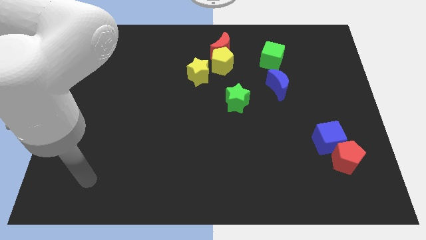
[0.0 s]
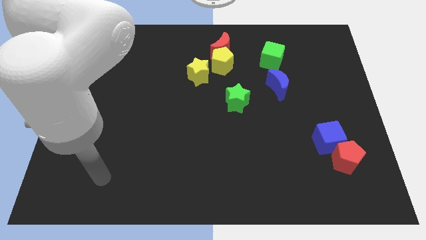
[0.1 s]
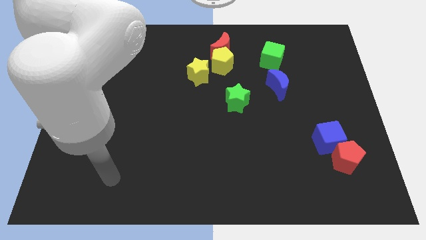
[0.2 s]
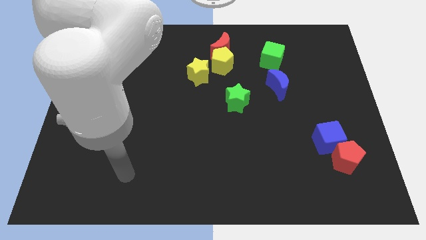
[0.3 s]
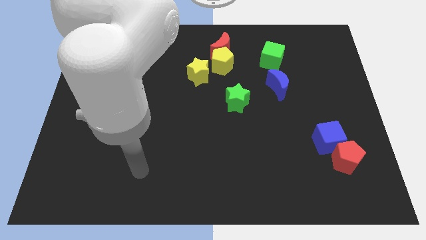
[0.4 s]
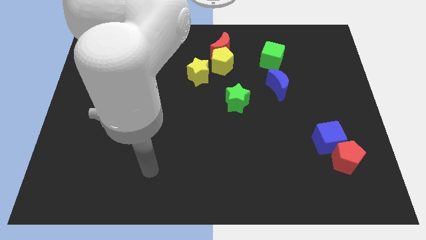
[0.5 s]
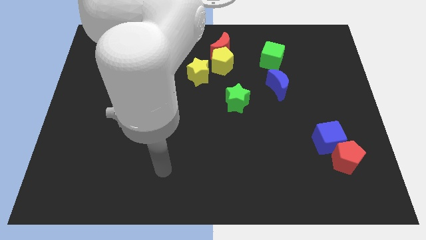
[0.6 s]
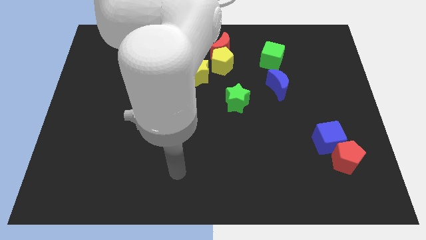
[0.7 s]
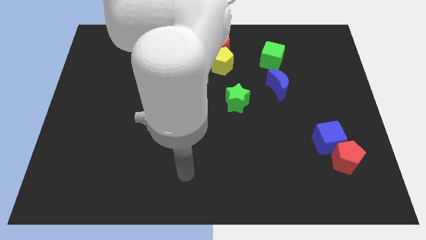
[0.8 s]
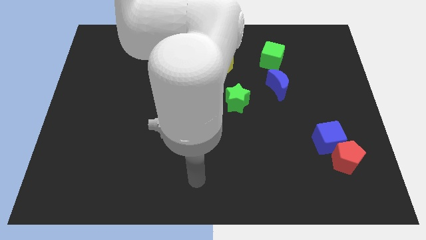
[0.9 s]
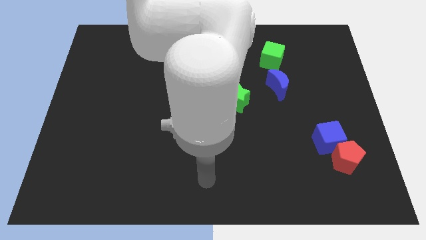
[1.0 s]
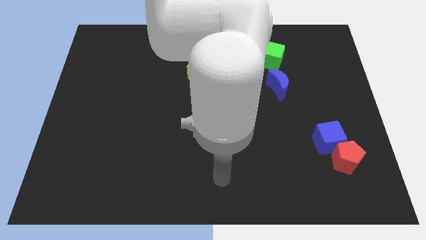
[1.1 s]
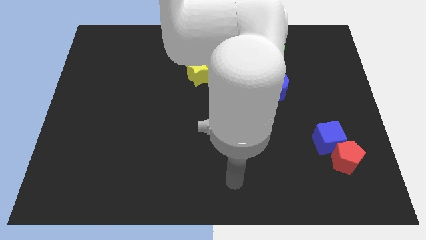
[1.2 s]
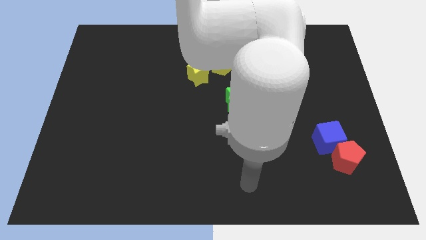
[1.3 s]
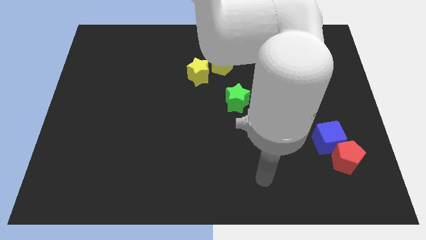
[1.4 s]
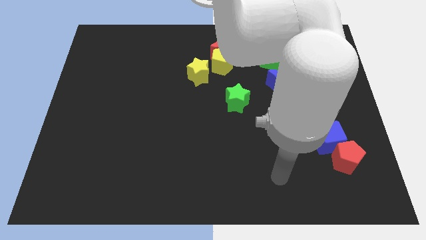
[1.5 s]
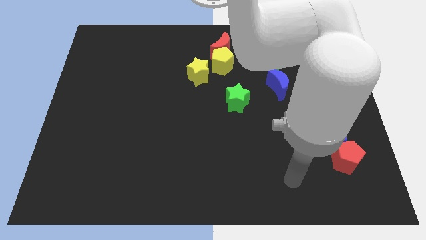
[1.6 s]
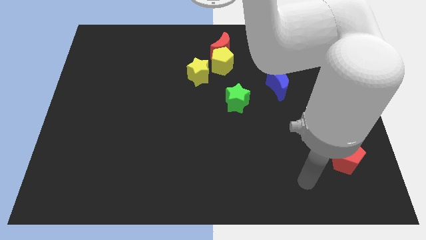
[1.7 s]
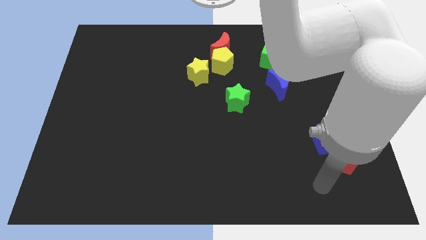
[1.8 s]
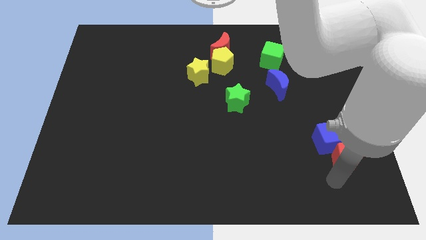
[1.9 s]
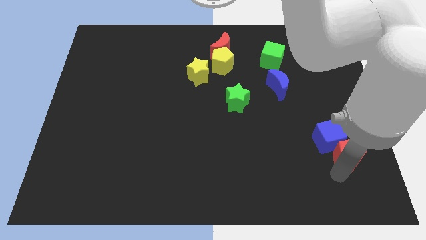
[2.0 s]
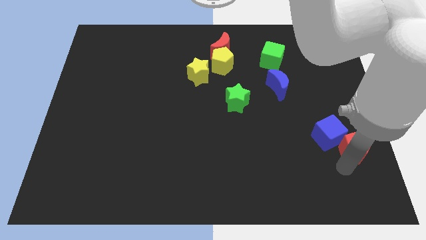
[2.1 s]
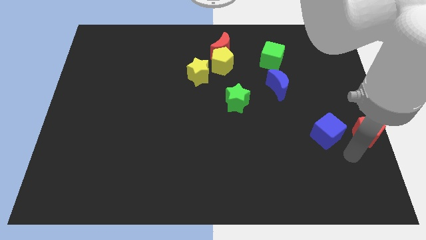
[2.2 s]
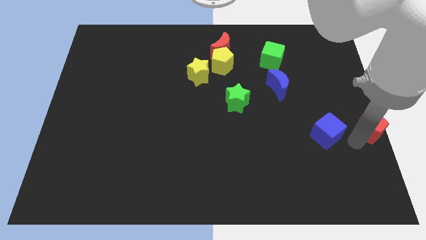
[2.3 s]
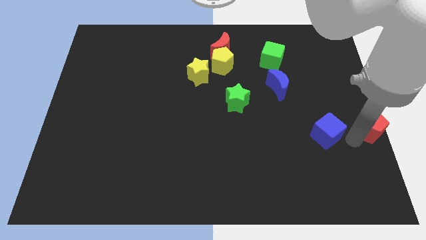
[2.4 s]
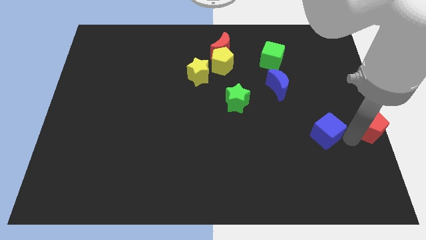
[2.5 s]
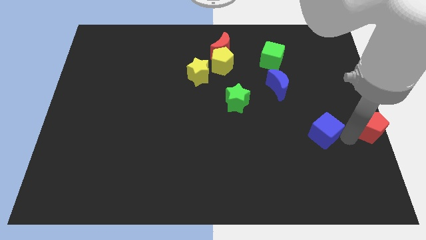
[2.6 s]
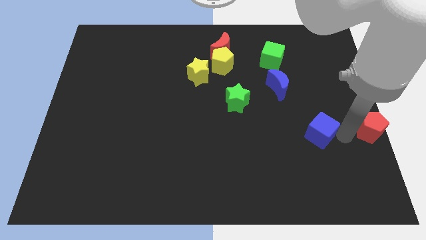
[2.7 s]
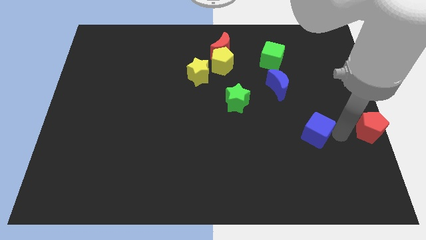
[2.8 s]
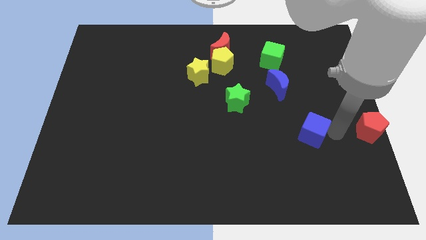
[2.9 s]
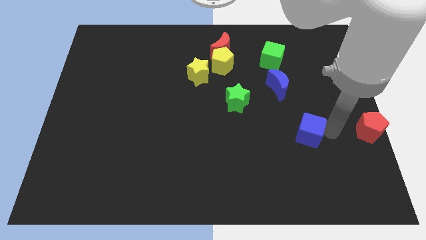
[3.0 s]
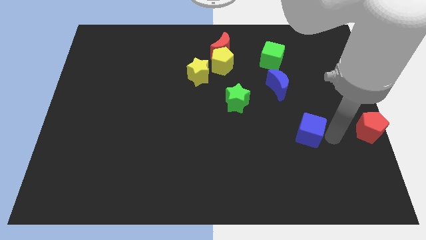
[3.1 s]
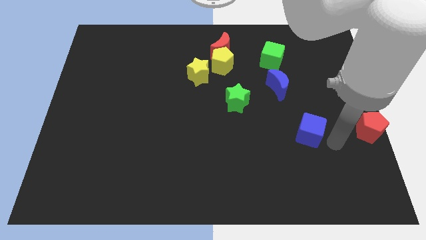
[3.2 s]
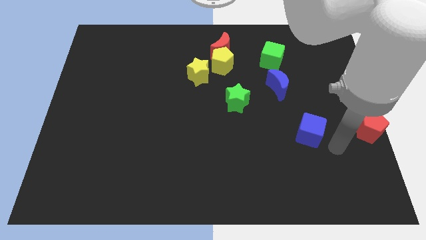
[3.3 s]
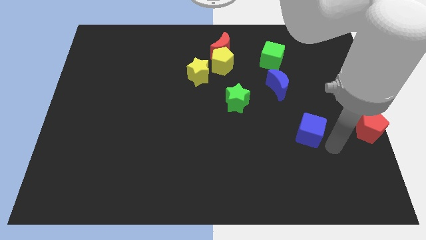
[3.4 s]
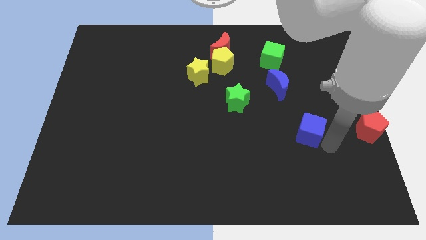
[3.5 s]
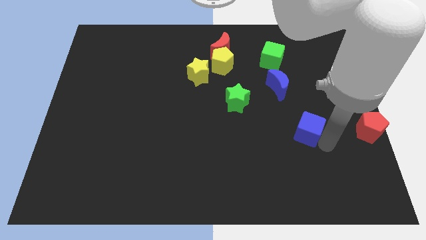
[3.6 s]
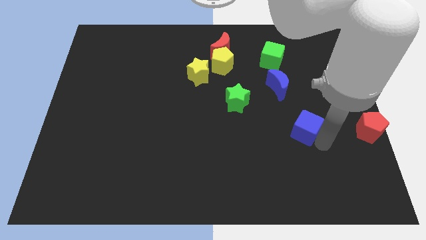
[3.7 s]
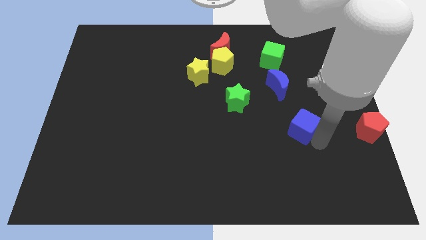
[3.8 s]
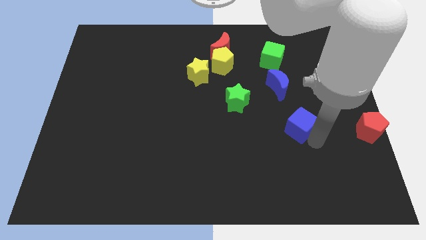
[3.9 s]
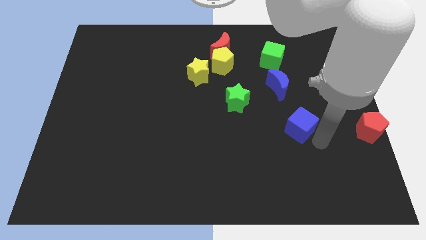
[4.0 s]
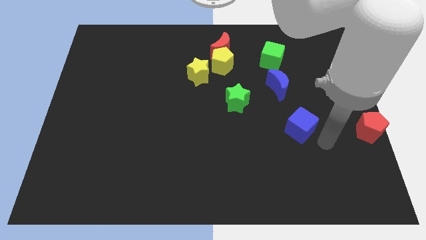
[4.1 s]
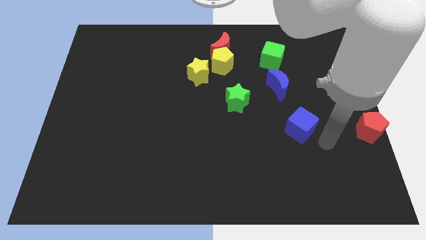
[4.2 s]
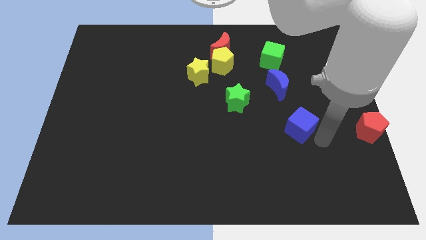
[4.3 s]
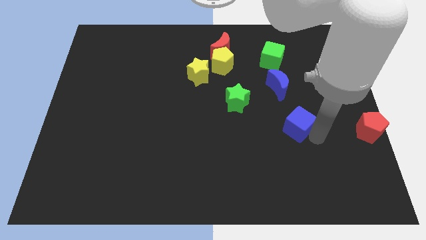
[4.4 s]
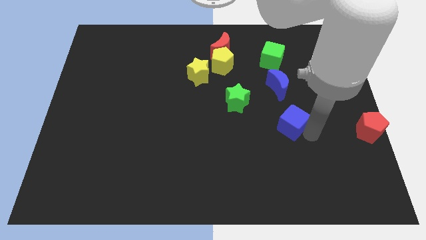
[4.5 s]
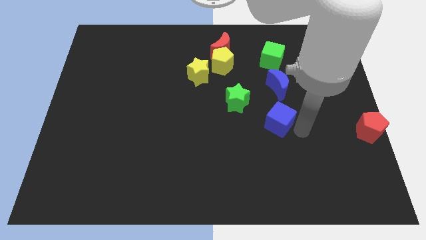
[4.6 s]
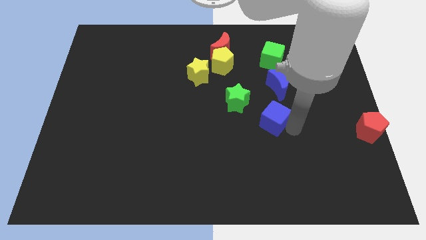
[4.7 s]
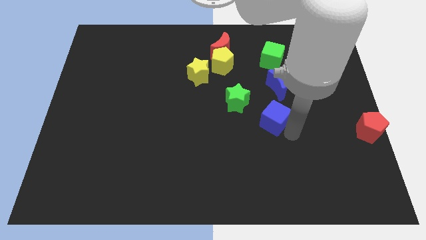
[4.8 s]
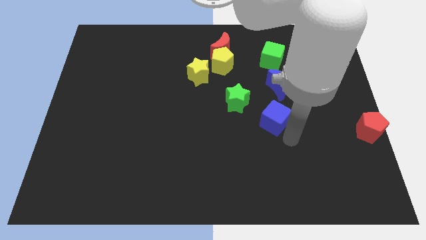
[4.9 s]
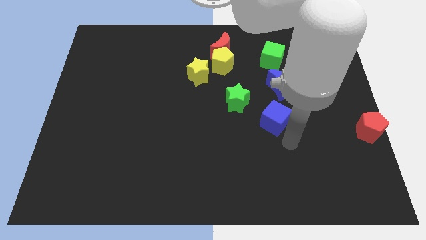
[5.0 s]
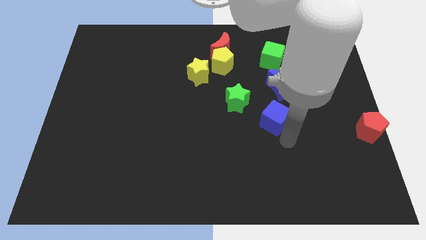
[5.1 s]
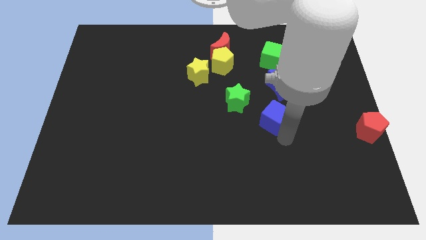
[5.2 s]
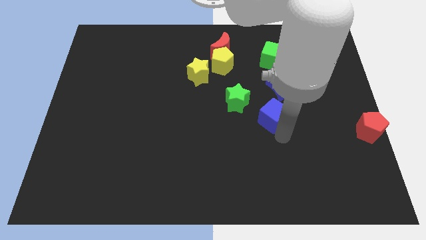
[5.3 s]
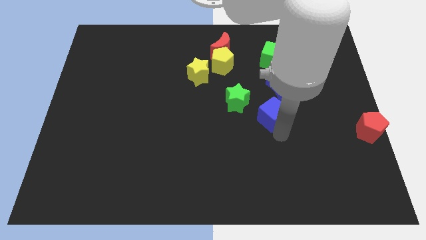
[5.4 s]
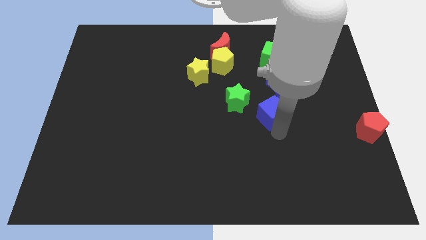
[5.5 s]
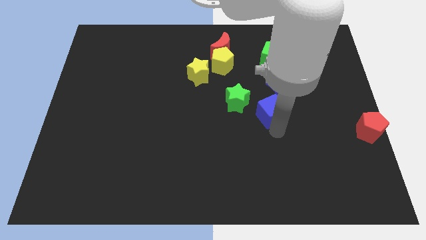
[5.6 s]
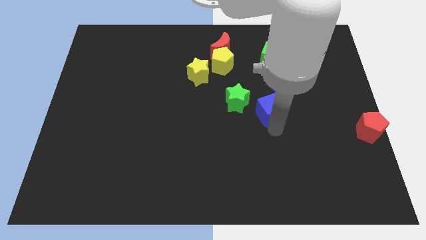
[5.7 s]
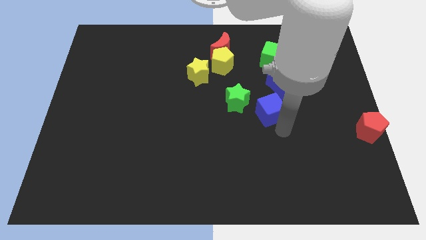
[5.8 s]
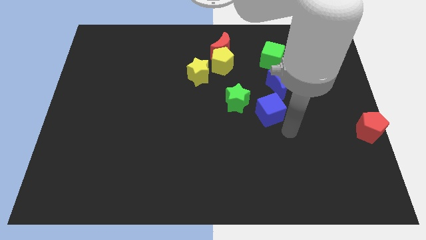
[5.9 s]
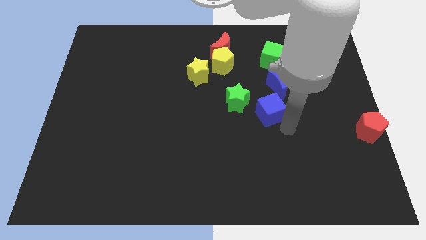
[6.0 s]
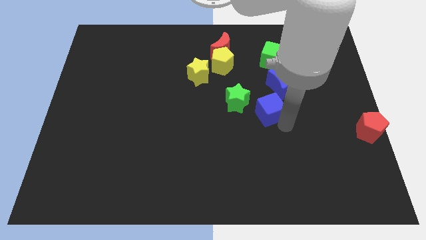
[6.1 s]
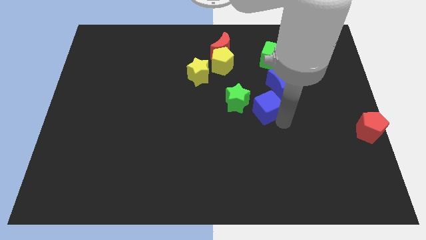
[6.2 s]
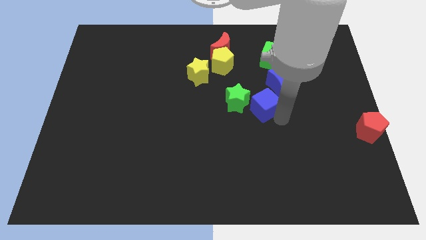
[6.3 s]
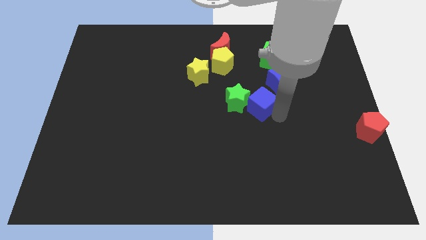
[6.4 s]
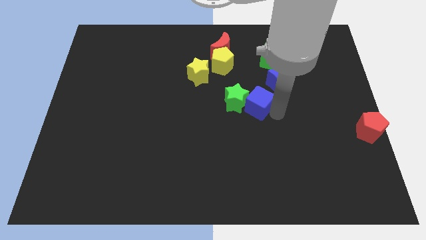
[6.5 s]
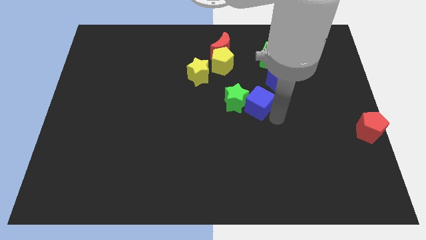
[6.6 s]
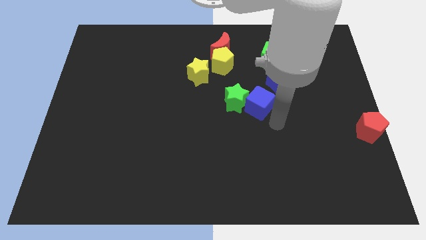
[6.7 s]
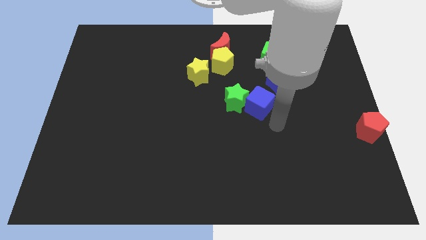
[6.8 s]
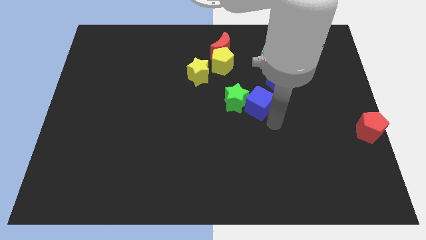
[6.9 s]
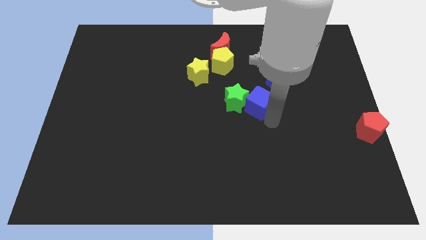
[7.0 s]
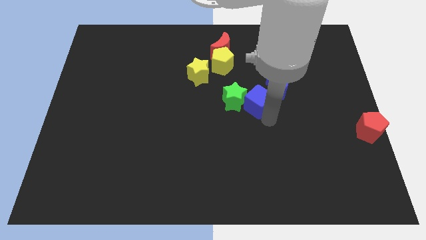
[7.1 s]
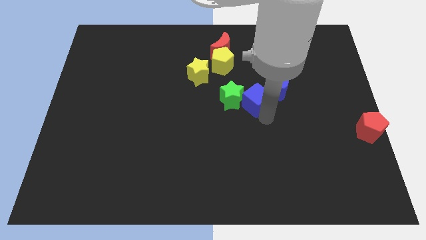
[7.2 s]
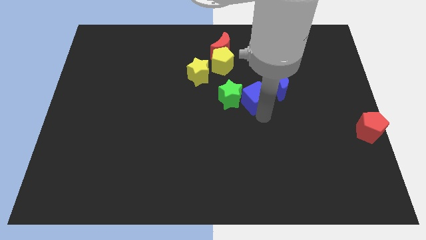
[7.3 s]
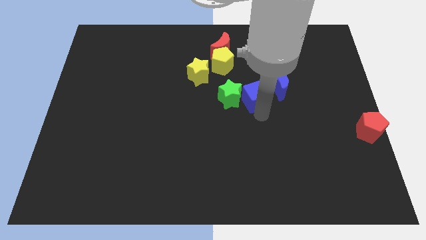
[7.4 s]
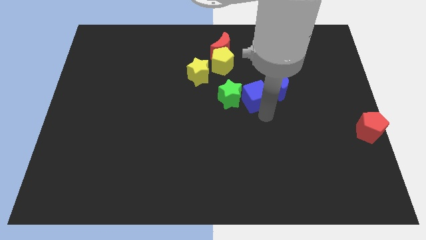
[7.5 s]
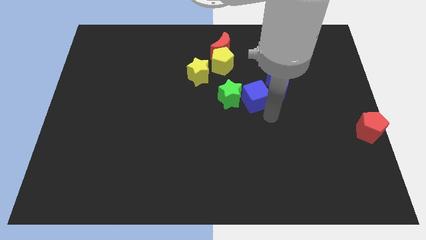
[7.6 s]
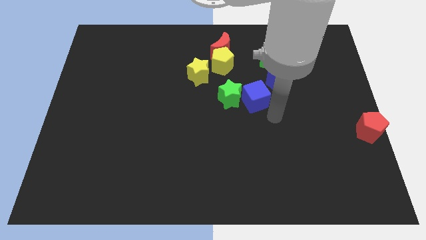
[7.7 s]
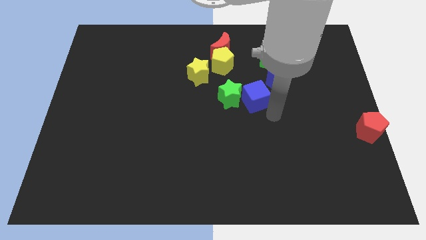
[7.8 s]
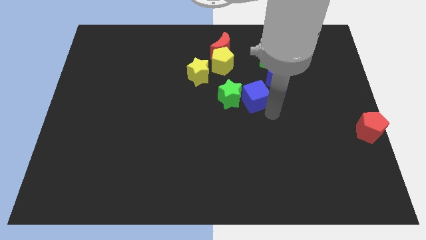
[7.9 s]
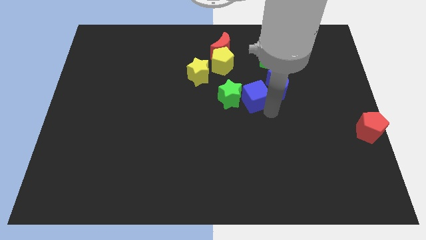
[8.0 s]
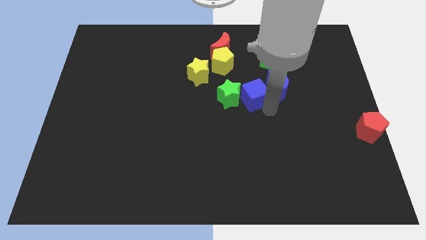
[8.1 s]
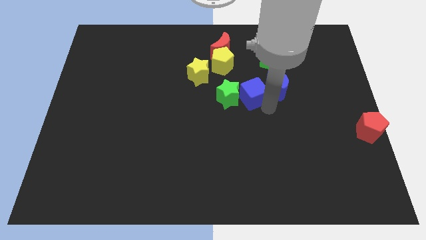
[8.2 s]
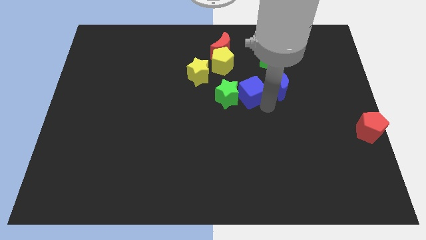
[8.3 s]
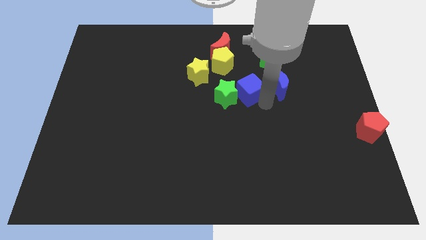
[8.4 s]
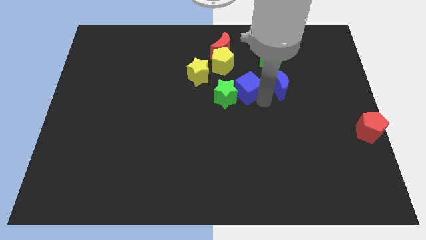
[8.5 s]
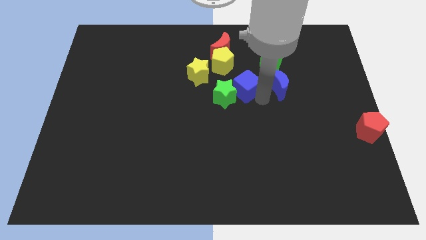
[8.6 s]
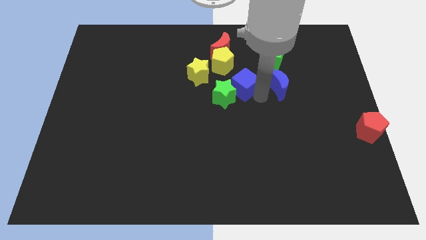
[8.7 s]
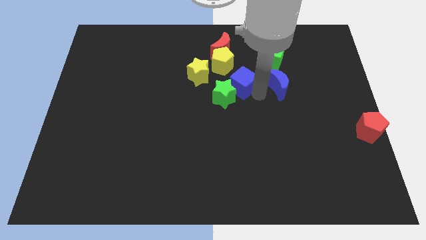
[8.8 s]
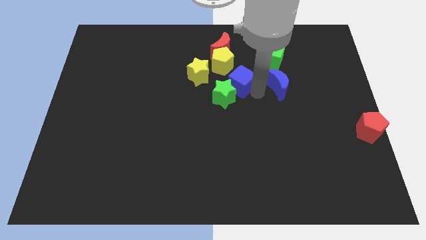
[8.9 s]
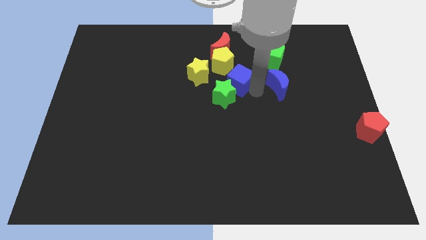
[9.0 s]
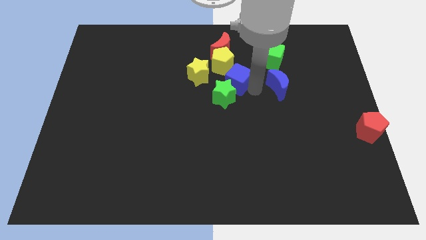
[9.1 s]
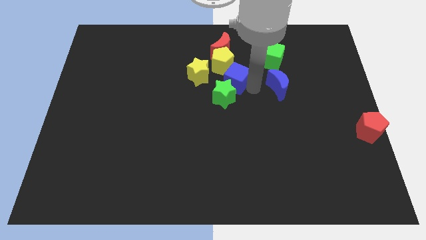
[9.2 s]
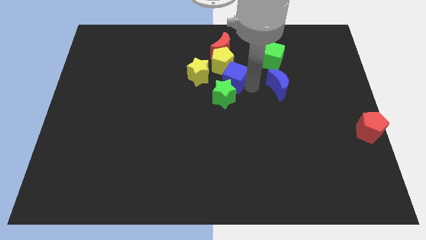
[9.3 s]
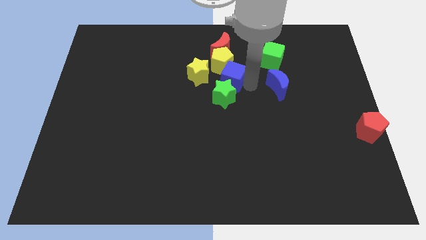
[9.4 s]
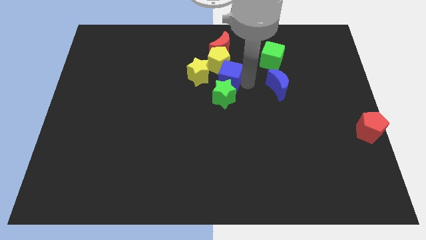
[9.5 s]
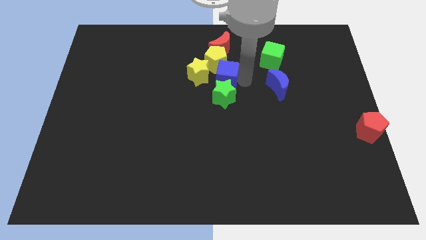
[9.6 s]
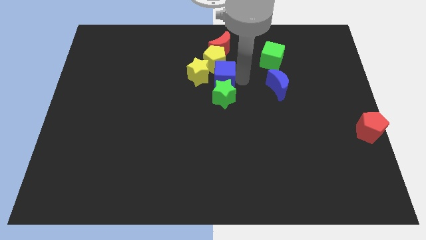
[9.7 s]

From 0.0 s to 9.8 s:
push the blue cube close to the yellow star
